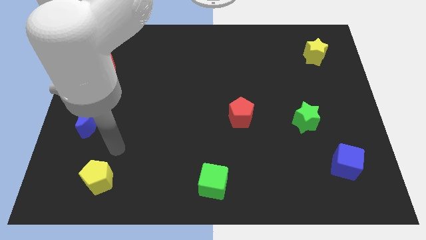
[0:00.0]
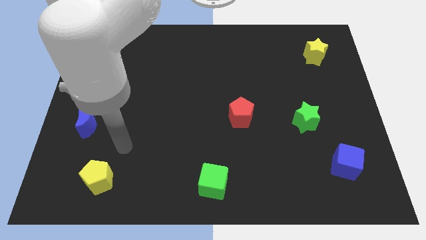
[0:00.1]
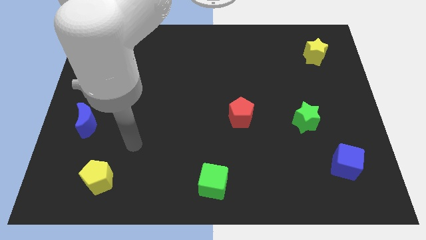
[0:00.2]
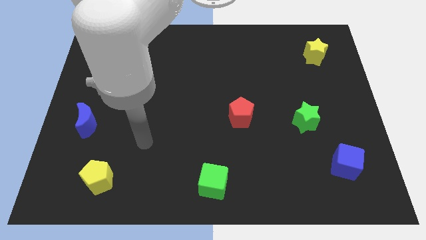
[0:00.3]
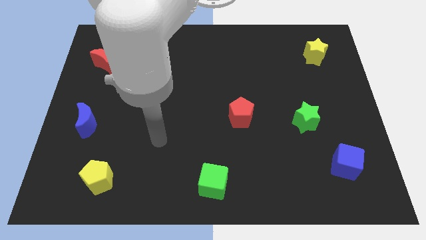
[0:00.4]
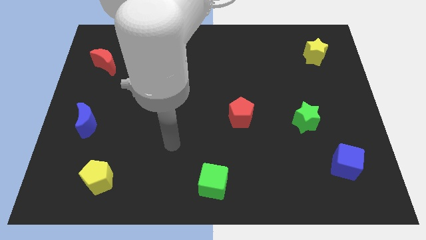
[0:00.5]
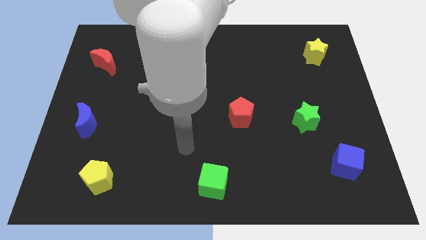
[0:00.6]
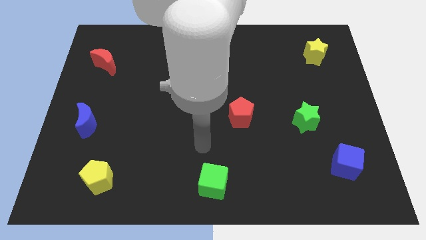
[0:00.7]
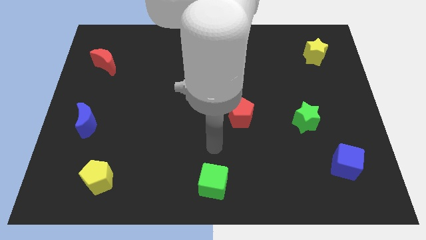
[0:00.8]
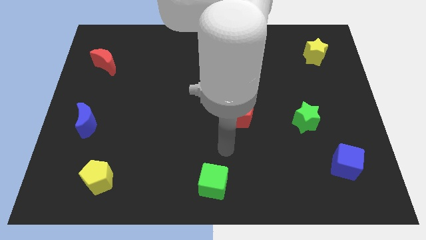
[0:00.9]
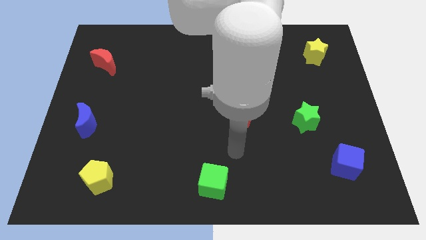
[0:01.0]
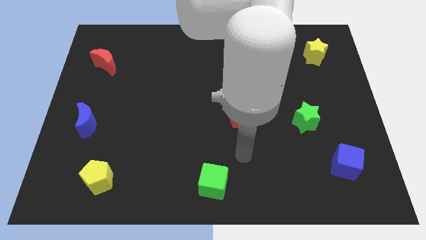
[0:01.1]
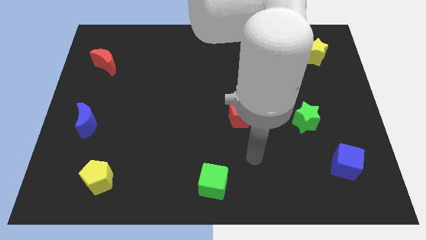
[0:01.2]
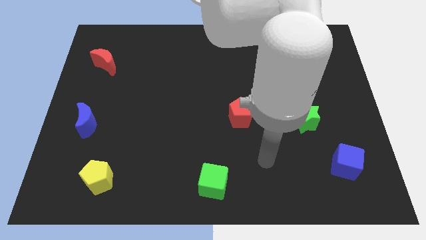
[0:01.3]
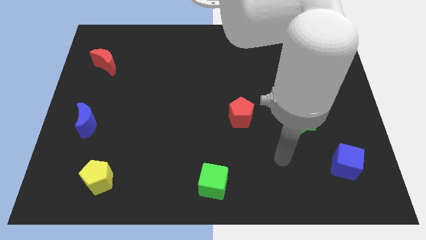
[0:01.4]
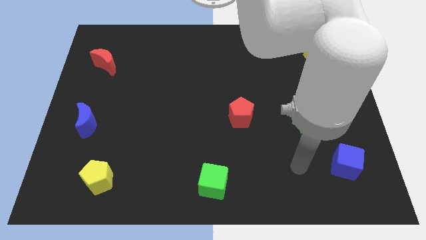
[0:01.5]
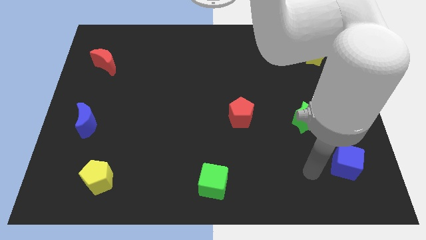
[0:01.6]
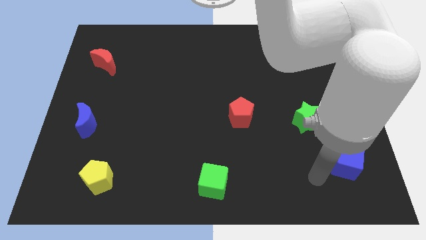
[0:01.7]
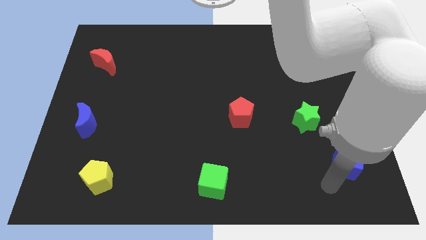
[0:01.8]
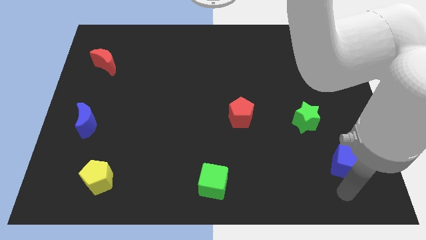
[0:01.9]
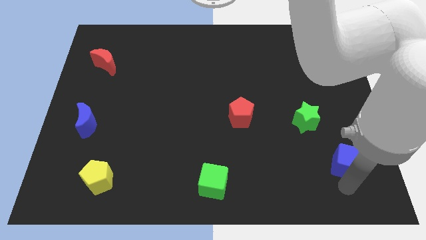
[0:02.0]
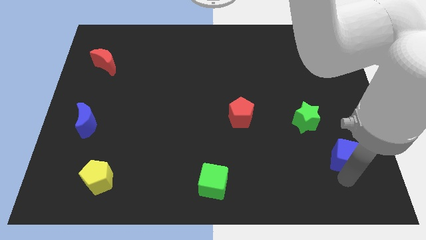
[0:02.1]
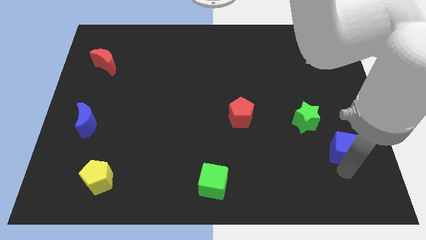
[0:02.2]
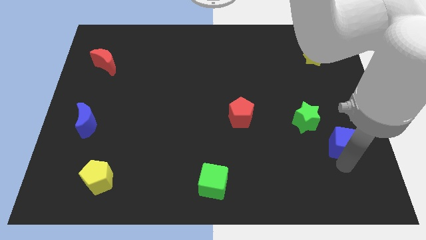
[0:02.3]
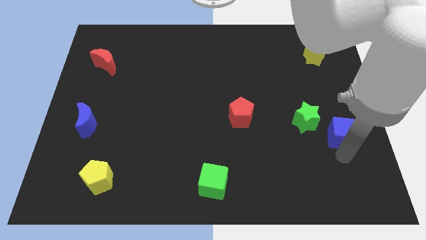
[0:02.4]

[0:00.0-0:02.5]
slide the blue cube a little upwards

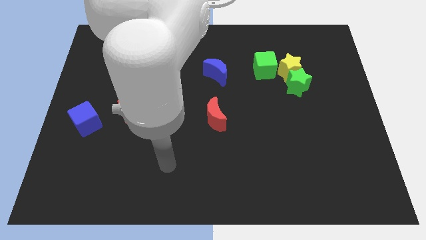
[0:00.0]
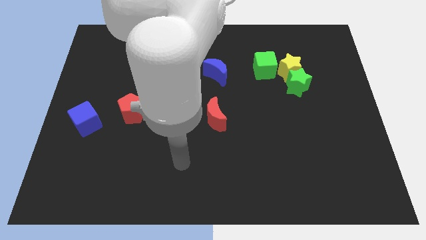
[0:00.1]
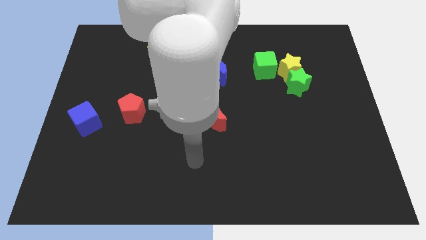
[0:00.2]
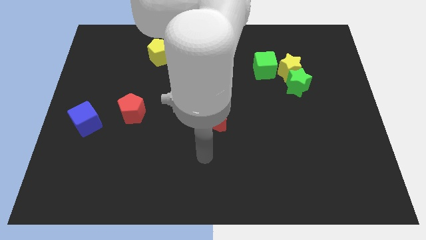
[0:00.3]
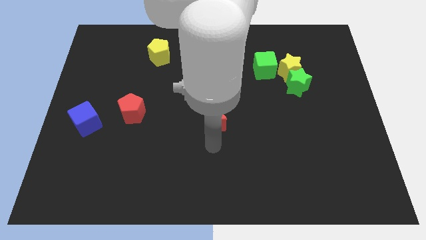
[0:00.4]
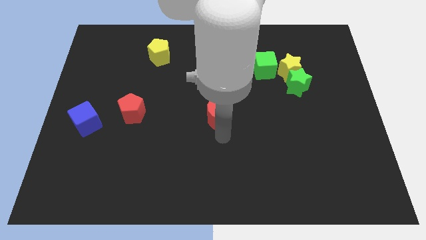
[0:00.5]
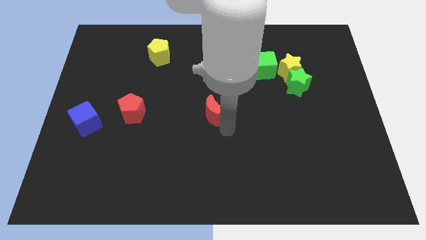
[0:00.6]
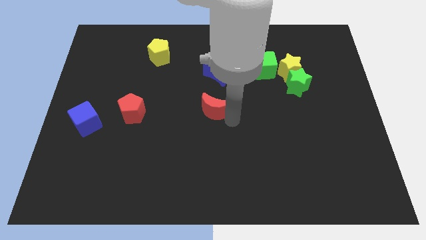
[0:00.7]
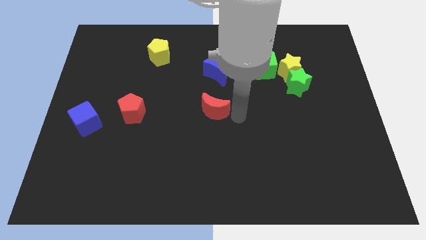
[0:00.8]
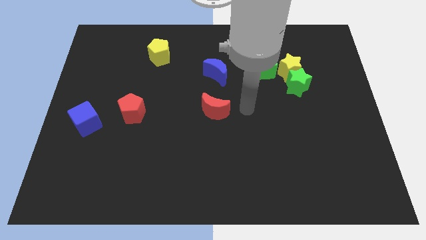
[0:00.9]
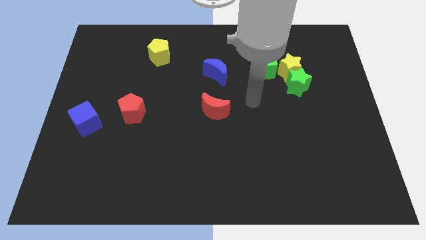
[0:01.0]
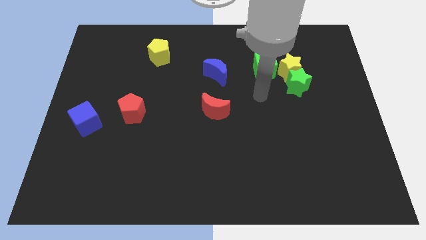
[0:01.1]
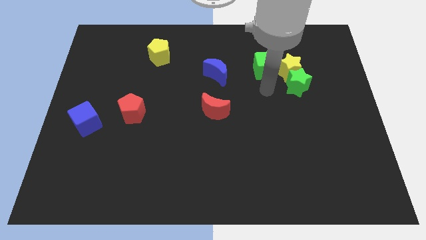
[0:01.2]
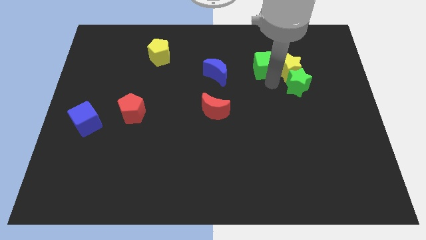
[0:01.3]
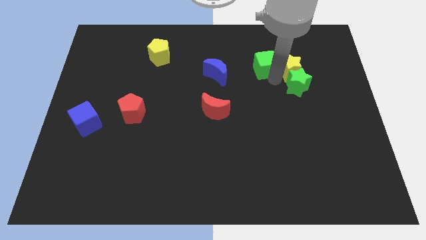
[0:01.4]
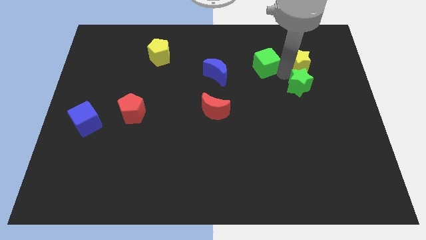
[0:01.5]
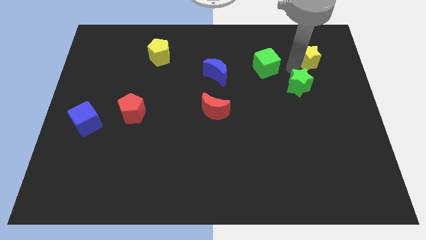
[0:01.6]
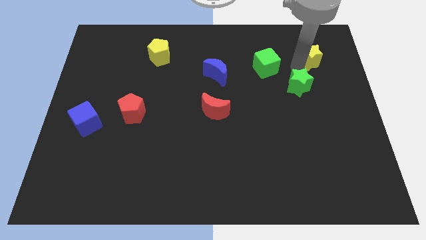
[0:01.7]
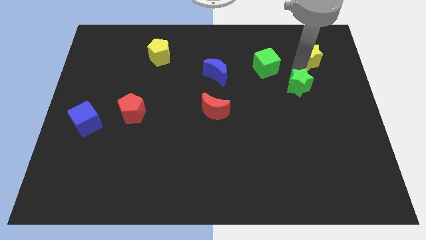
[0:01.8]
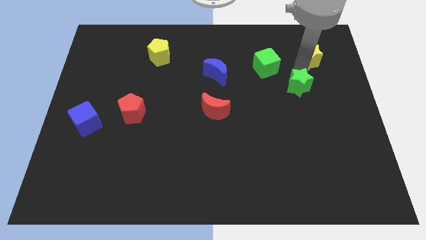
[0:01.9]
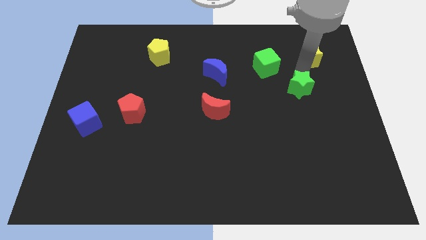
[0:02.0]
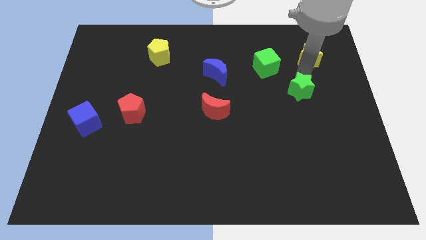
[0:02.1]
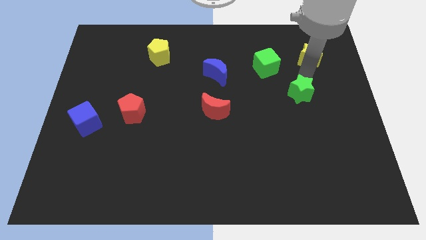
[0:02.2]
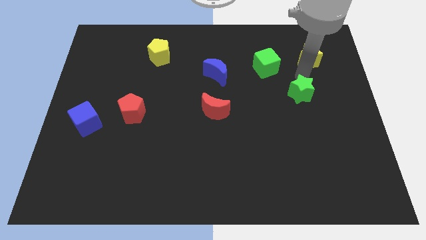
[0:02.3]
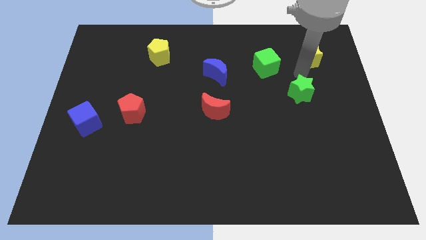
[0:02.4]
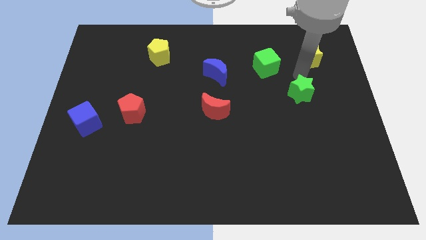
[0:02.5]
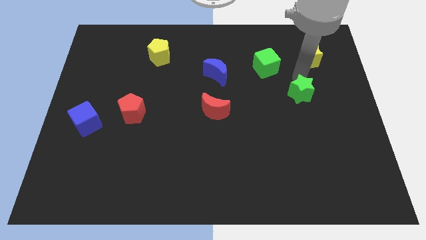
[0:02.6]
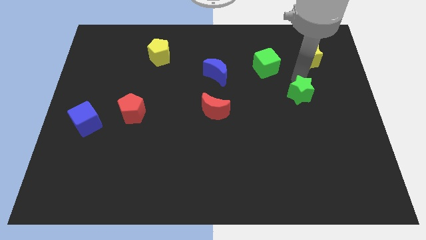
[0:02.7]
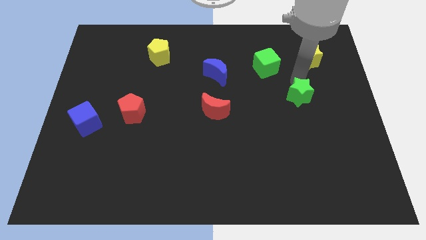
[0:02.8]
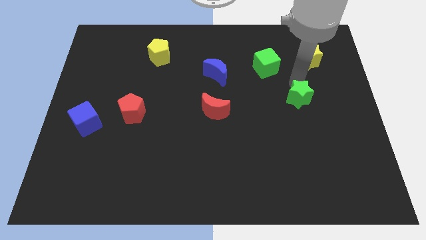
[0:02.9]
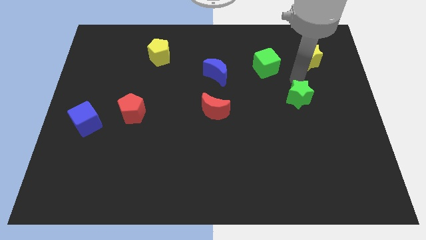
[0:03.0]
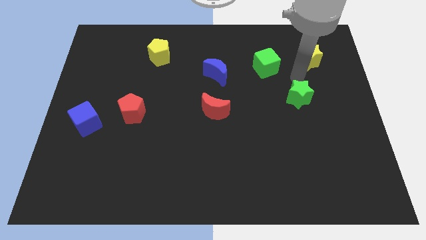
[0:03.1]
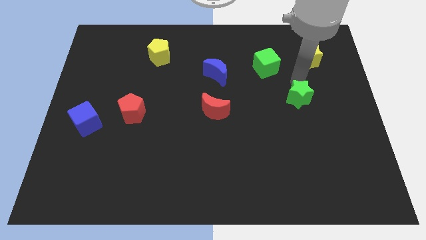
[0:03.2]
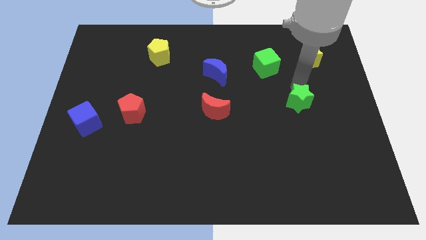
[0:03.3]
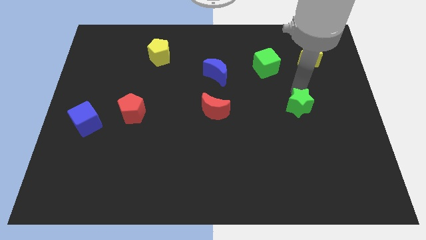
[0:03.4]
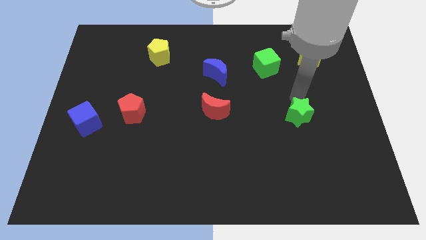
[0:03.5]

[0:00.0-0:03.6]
push the green star down slightly

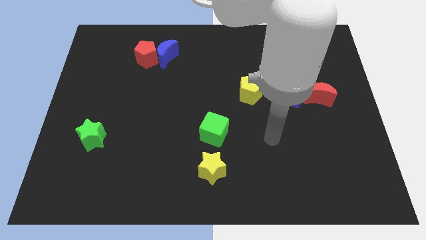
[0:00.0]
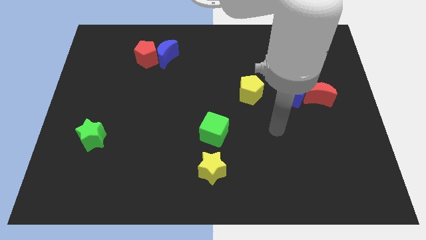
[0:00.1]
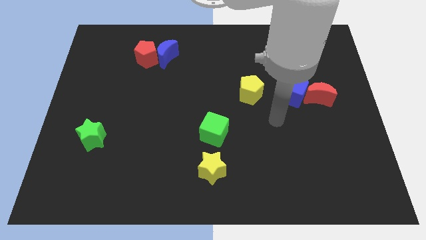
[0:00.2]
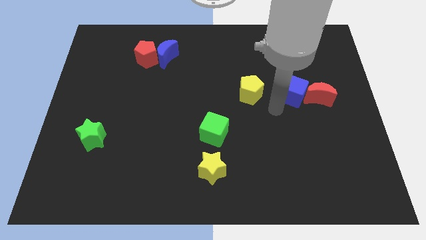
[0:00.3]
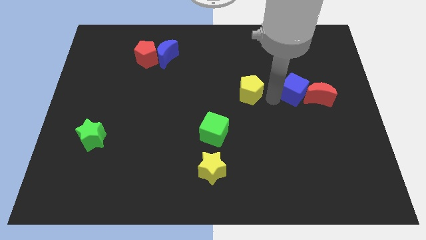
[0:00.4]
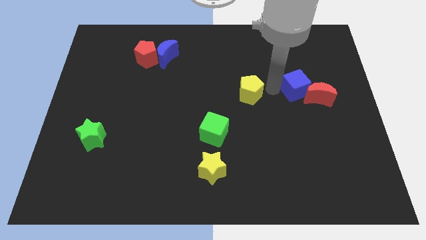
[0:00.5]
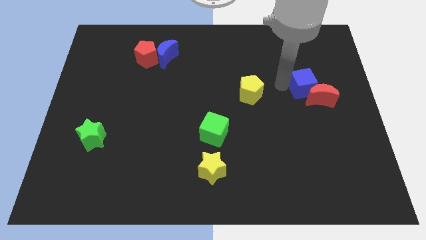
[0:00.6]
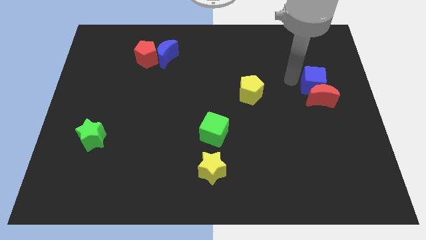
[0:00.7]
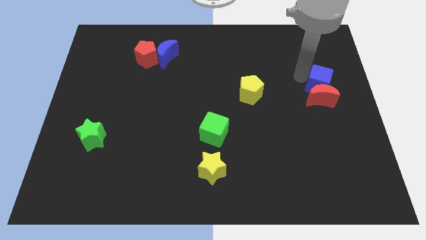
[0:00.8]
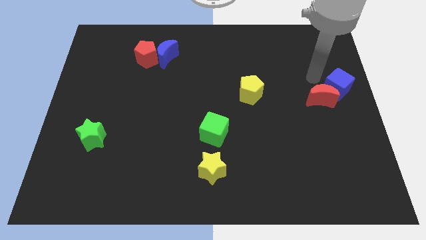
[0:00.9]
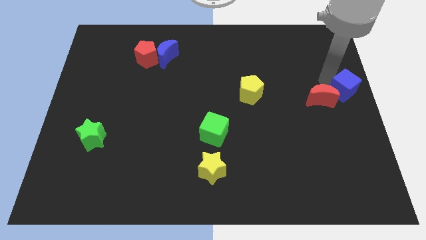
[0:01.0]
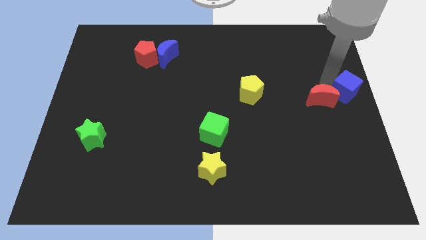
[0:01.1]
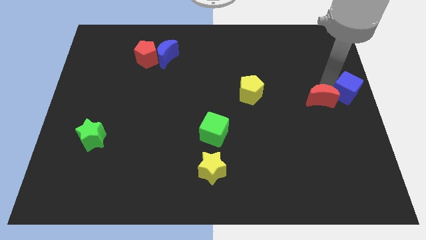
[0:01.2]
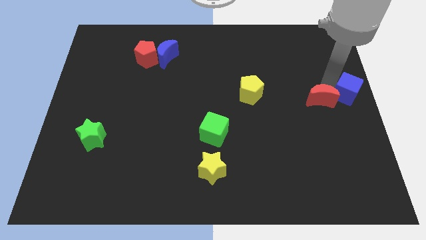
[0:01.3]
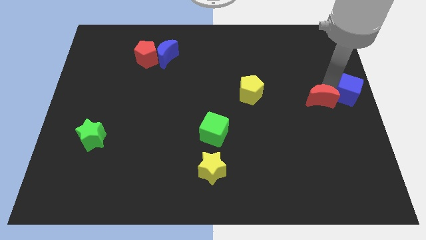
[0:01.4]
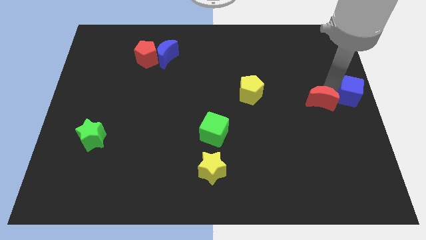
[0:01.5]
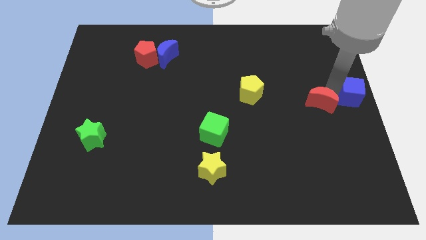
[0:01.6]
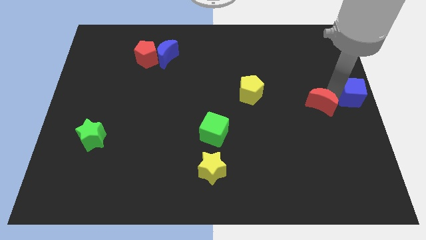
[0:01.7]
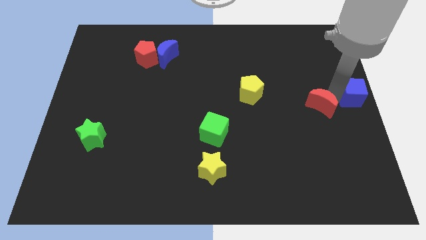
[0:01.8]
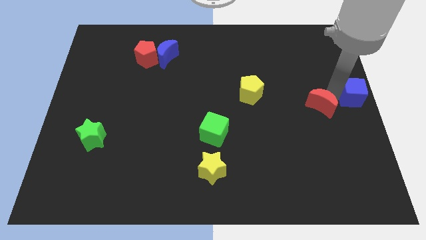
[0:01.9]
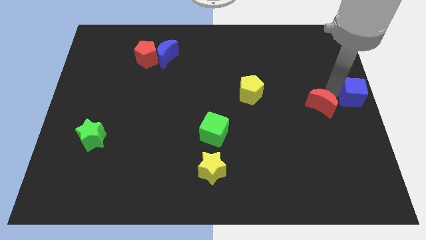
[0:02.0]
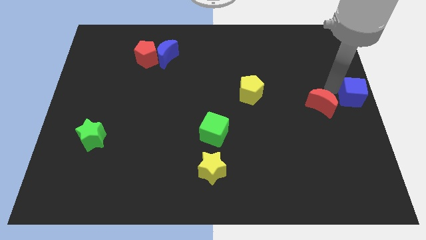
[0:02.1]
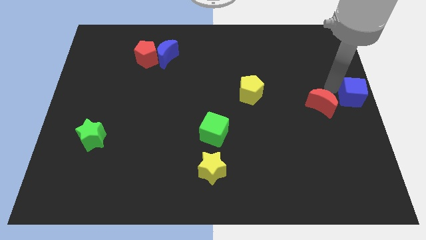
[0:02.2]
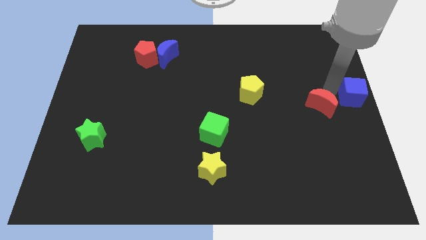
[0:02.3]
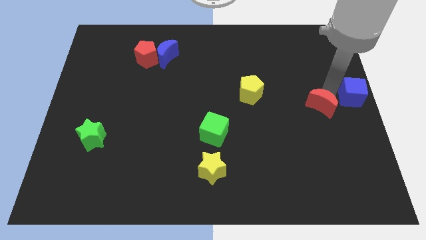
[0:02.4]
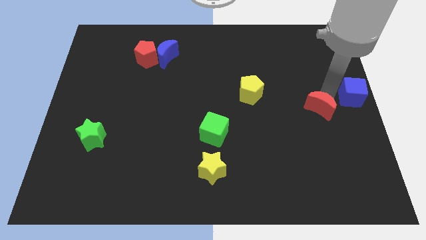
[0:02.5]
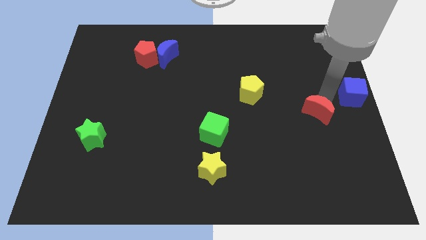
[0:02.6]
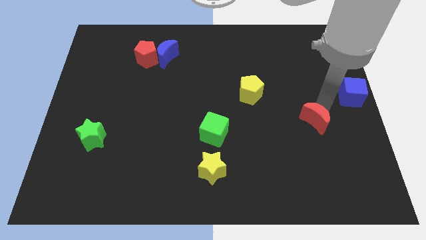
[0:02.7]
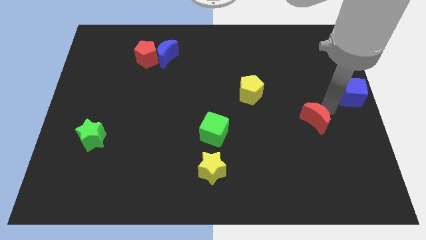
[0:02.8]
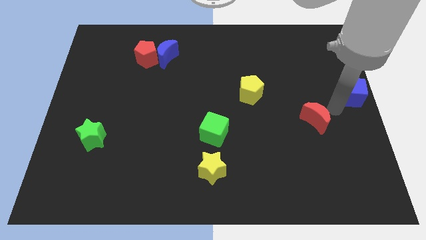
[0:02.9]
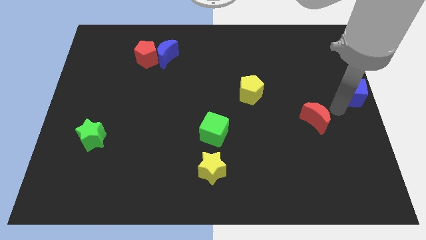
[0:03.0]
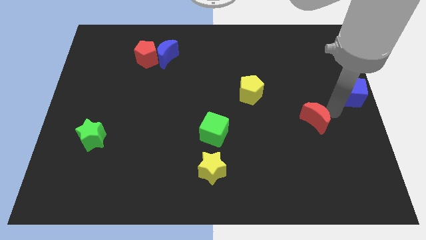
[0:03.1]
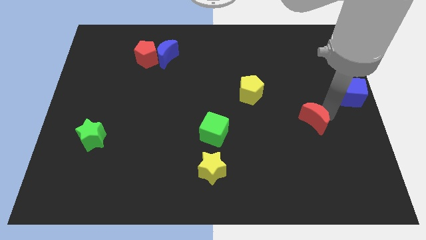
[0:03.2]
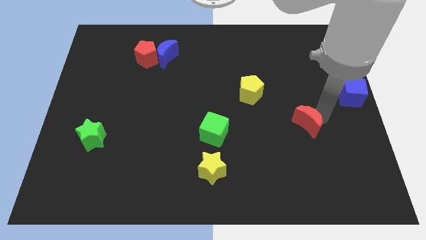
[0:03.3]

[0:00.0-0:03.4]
push the red moon a little down and left
